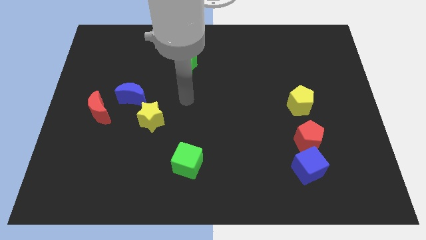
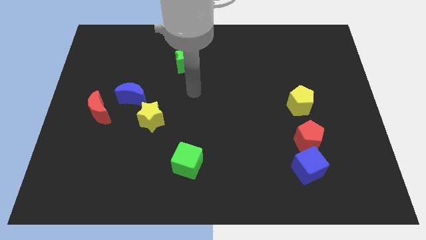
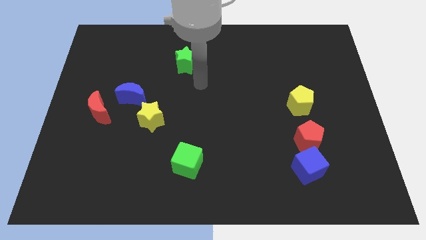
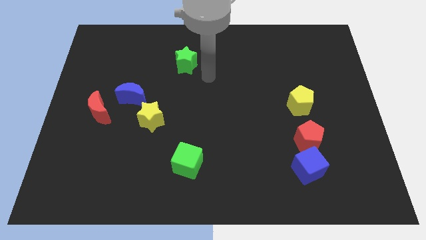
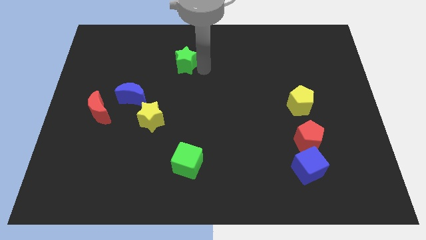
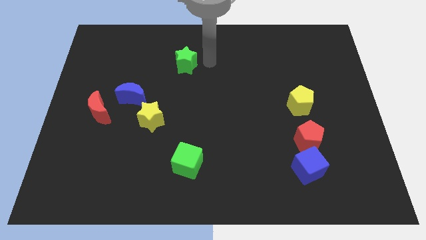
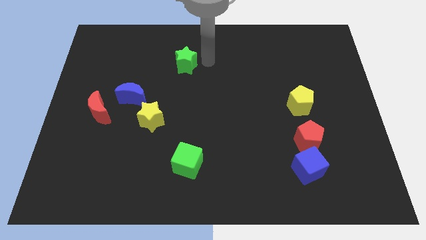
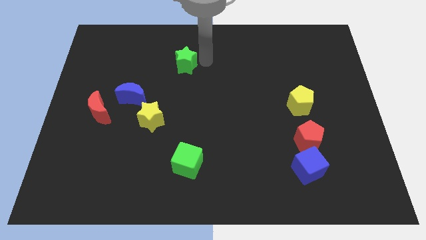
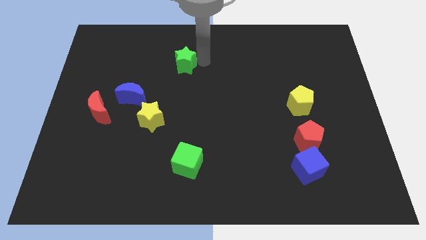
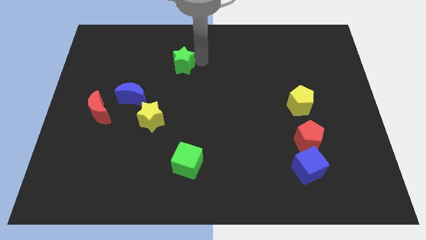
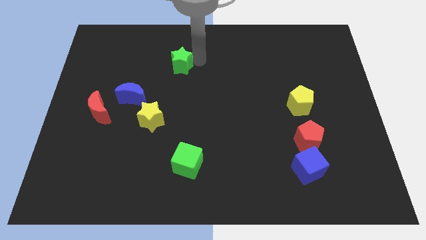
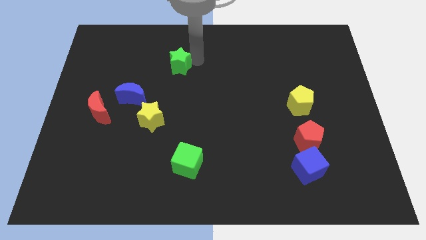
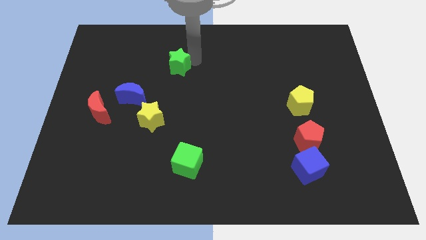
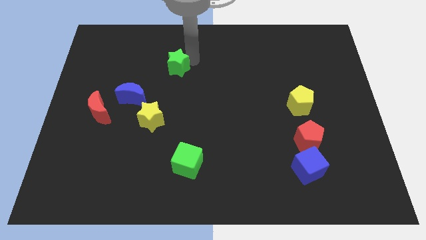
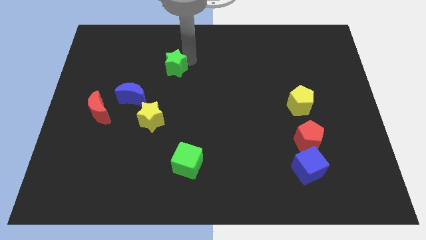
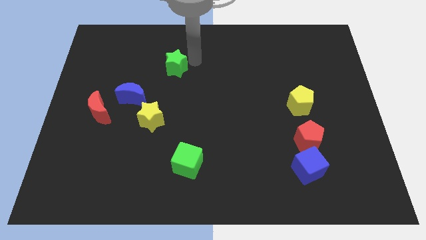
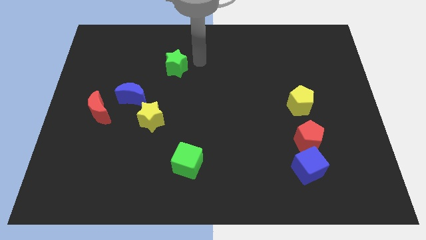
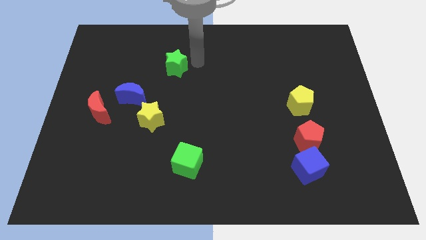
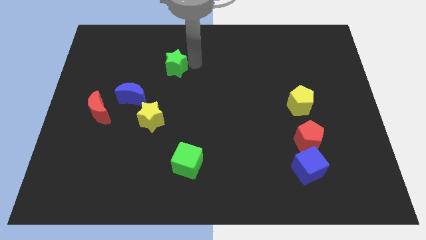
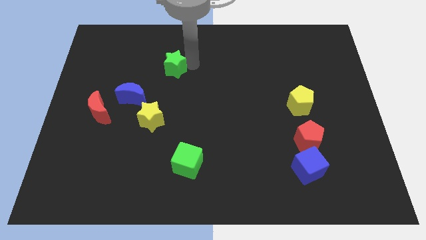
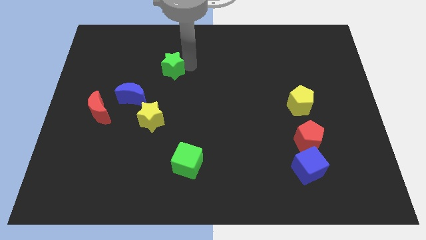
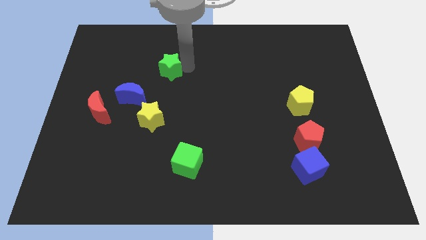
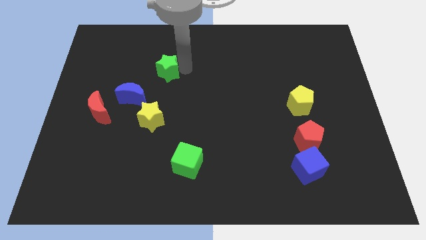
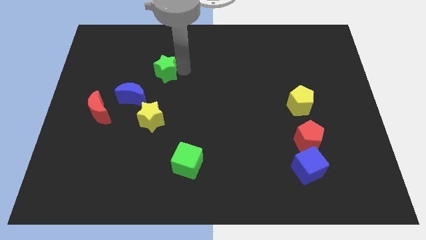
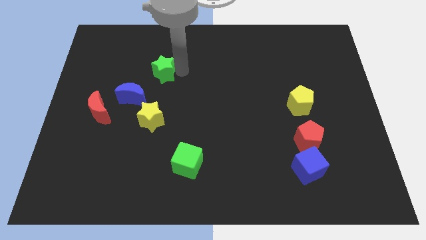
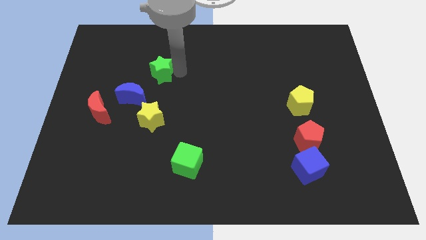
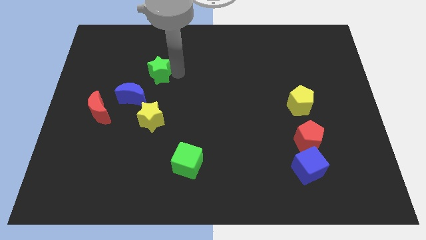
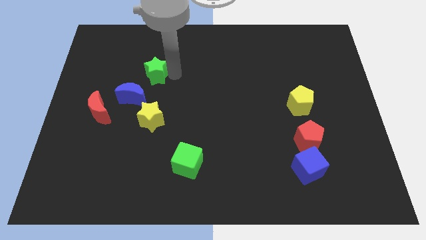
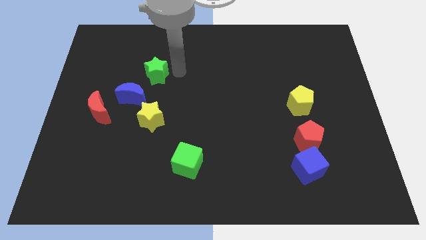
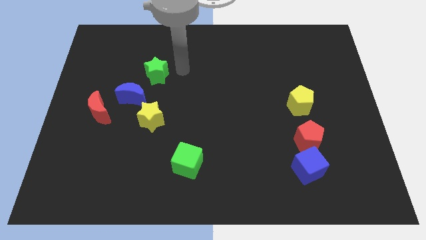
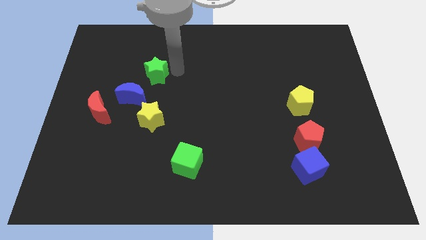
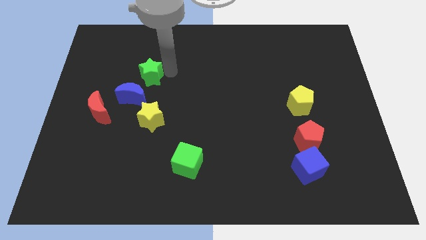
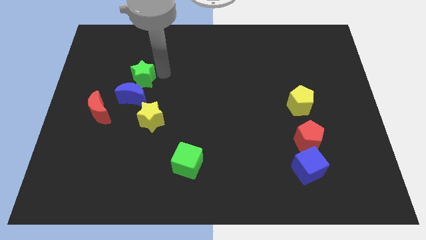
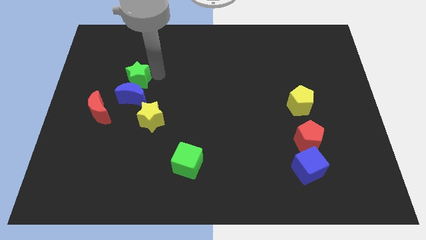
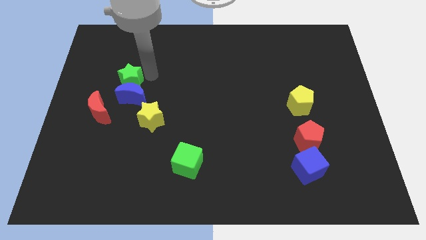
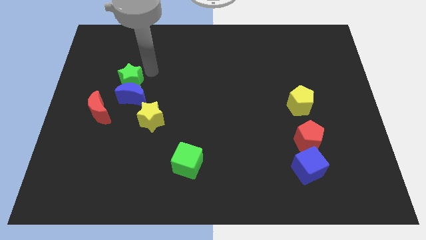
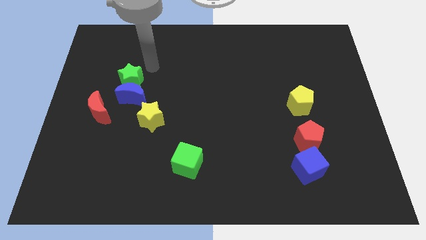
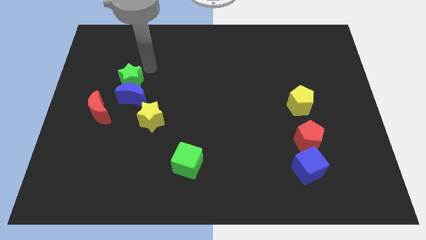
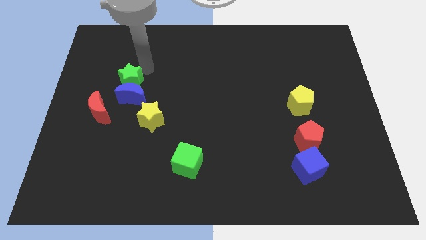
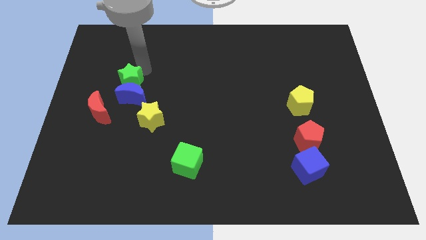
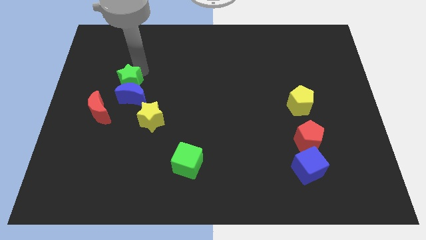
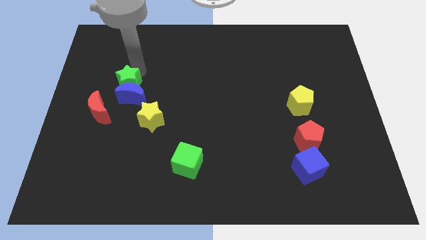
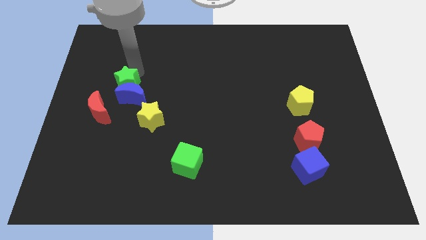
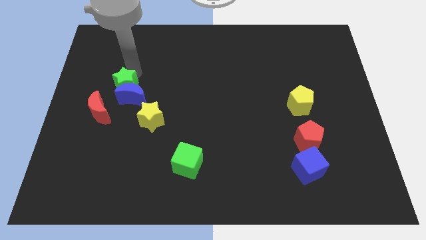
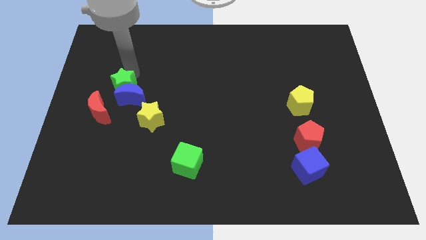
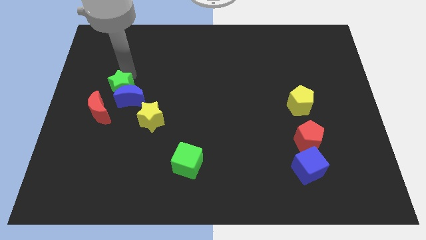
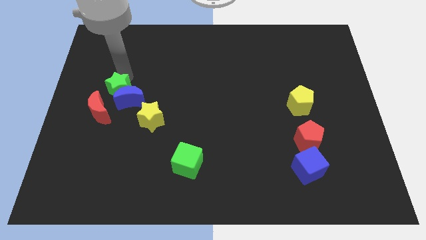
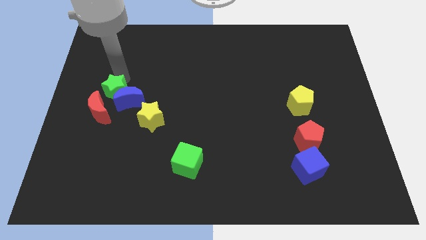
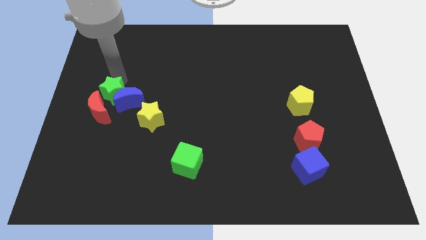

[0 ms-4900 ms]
move the green star close to the red moon

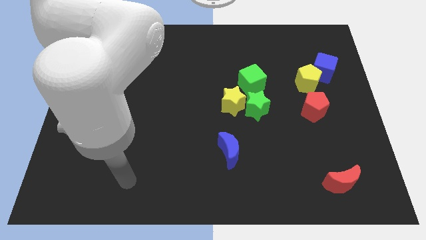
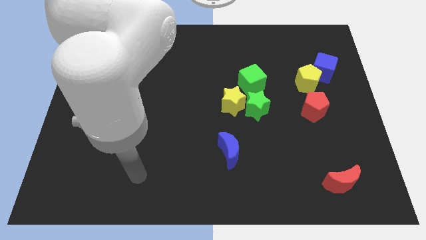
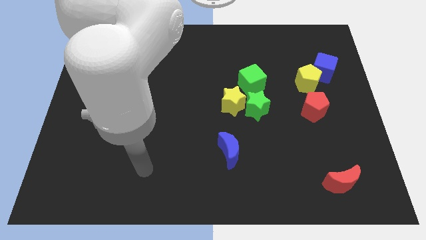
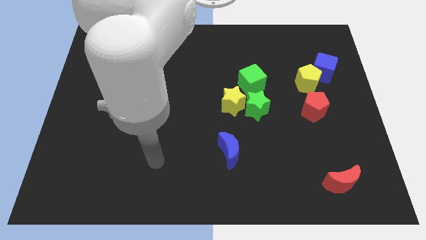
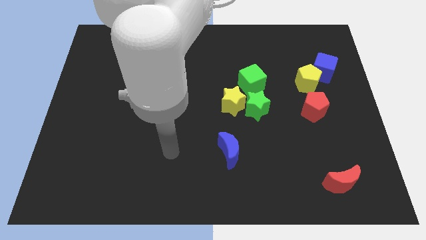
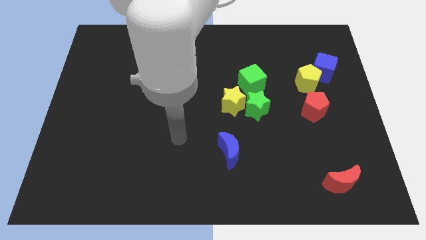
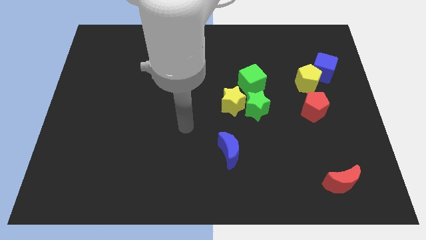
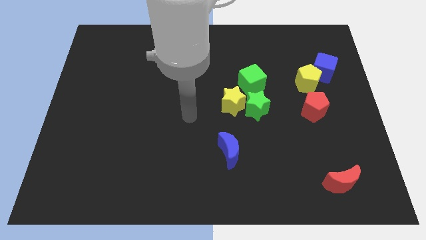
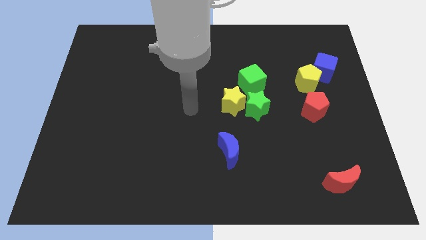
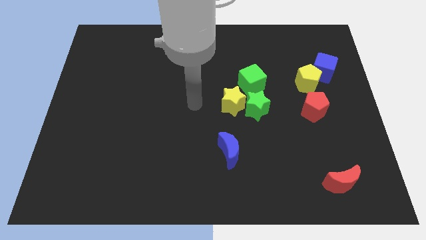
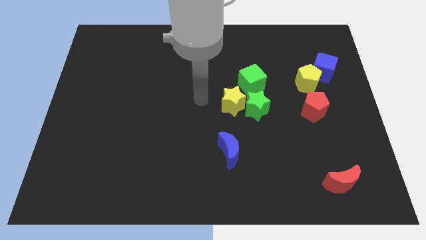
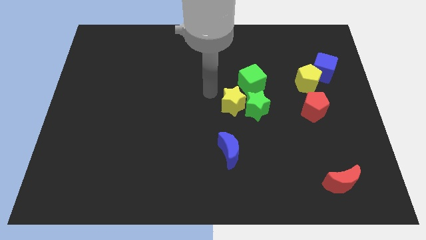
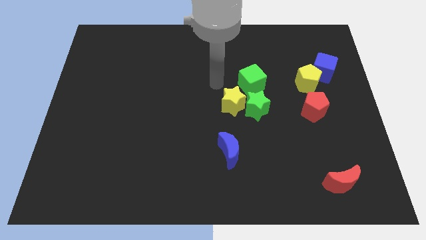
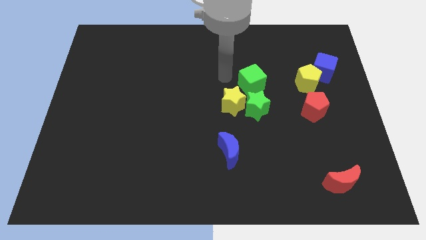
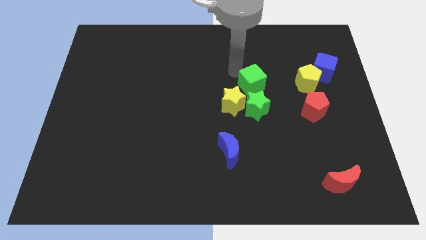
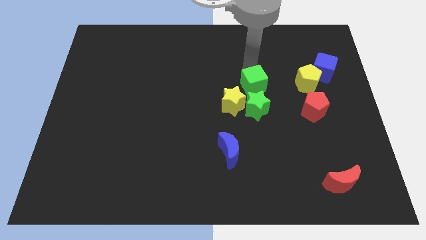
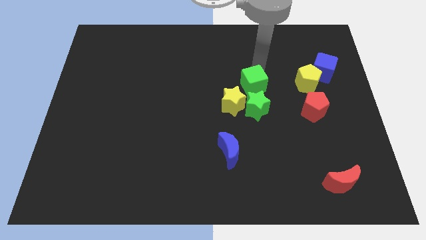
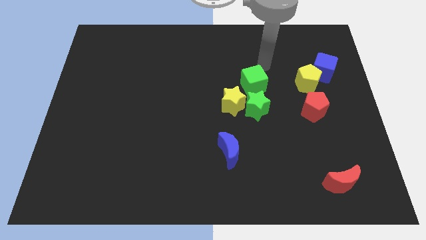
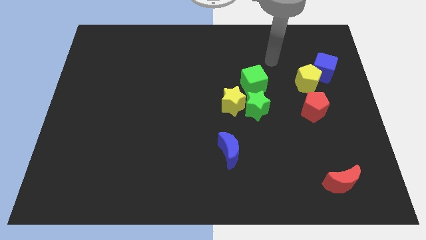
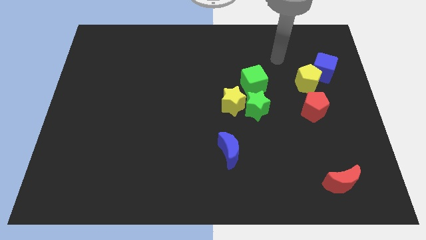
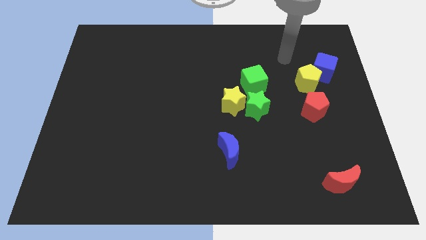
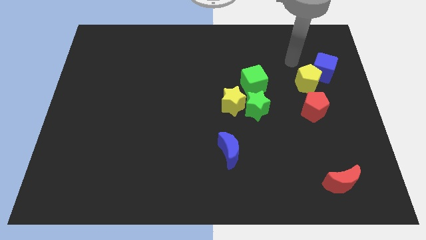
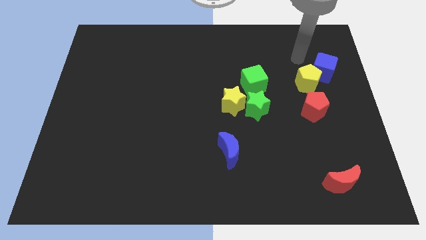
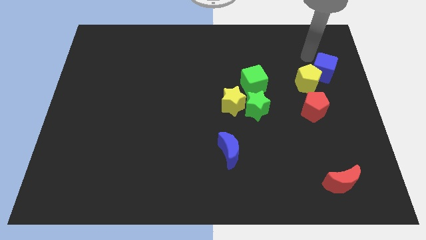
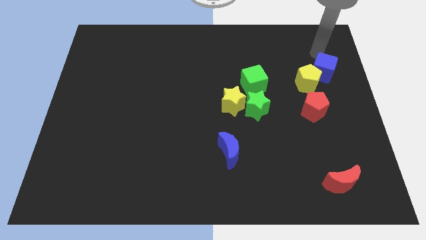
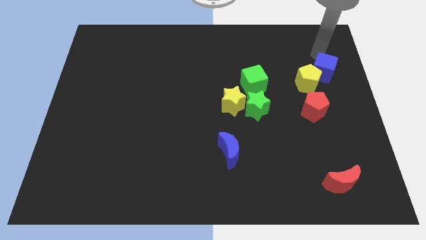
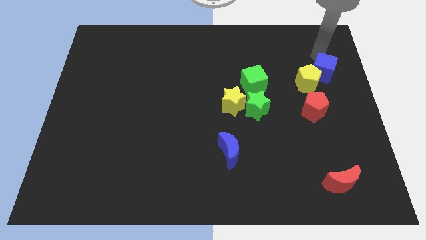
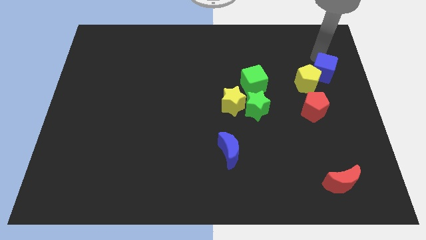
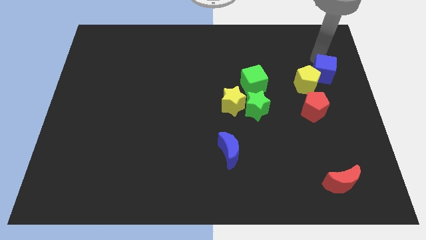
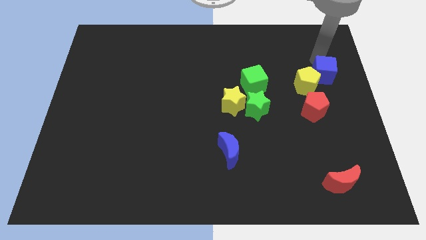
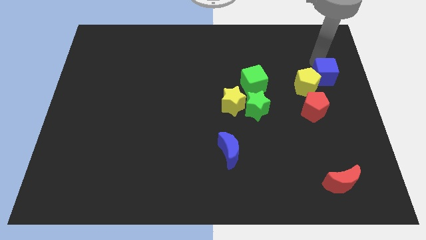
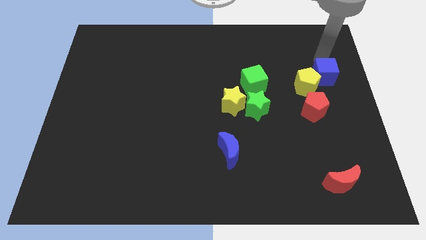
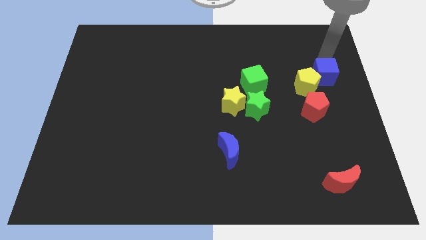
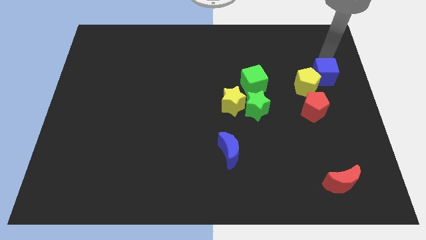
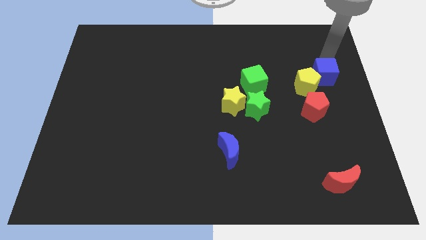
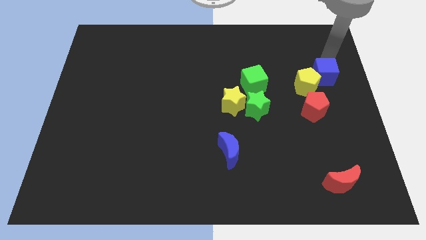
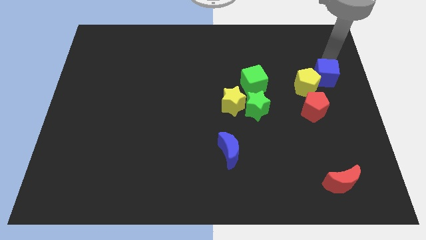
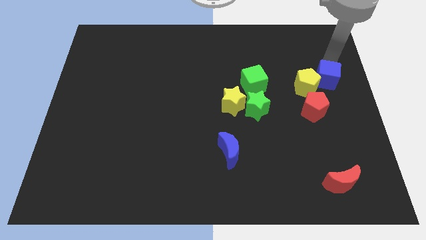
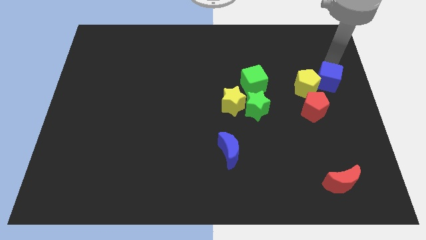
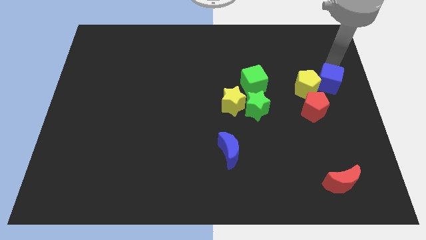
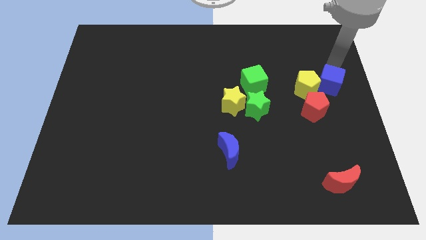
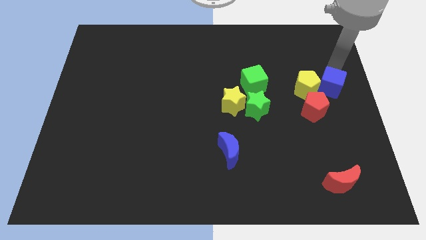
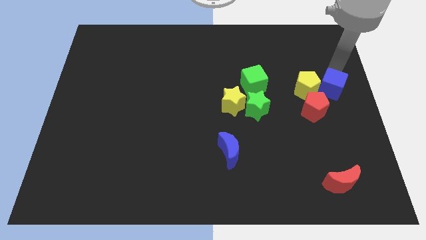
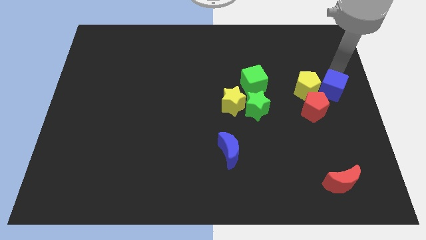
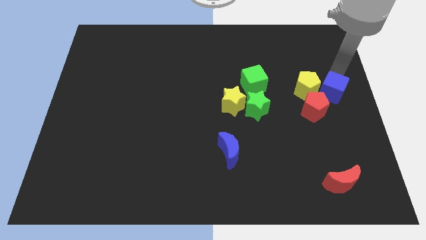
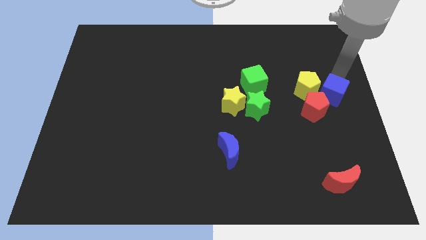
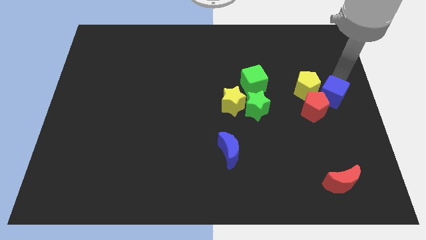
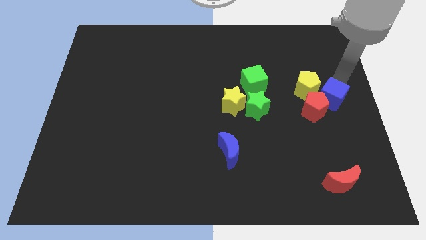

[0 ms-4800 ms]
slide the blue cube to the red pentagon
